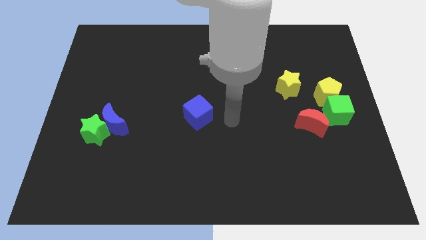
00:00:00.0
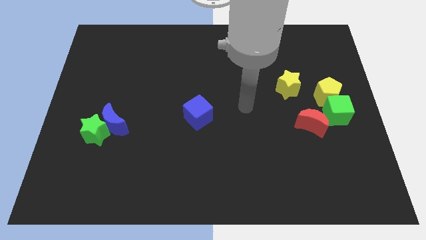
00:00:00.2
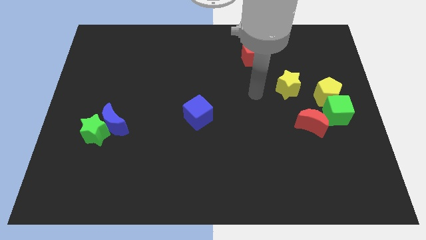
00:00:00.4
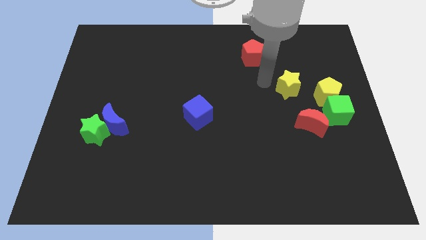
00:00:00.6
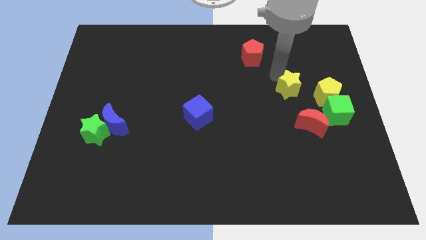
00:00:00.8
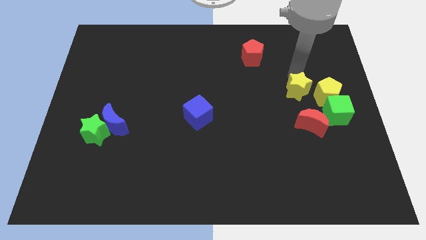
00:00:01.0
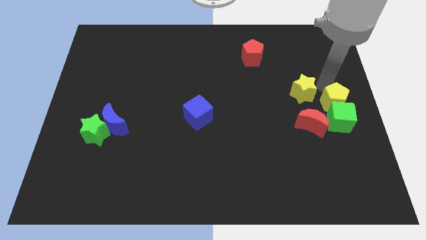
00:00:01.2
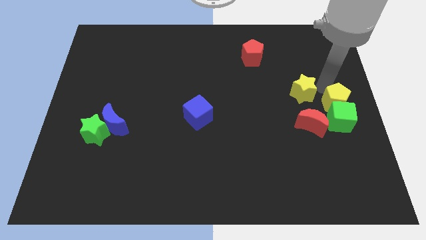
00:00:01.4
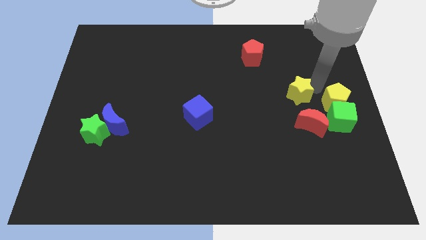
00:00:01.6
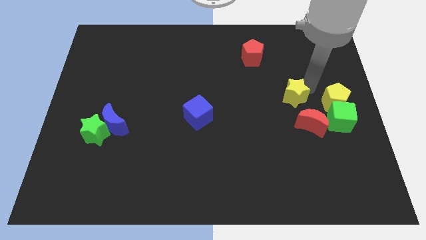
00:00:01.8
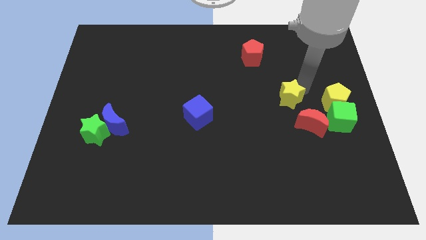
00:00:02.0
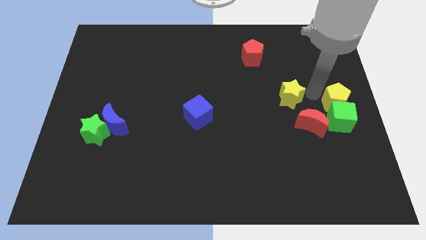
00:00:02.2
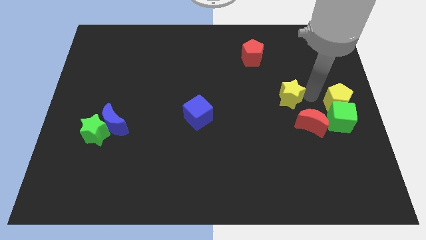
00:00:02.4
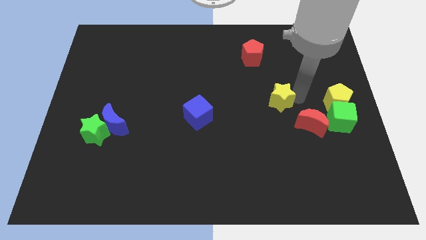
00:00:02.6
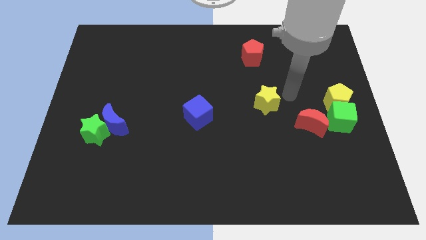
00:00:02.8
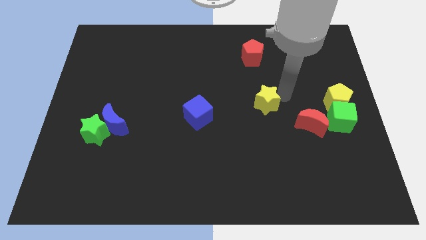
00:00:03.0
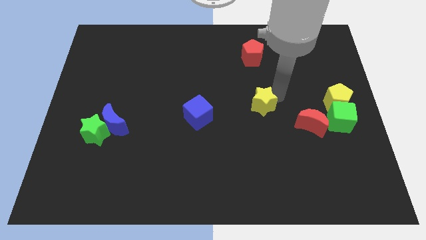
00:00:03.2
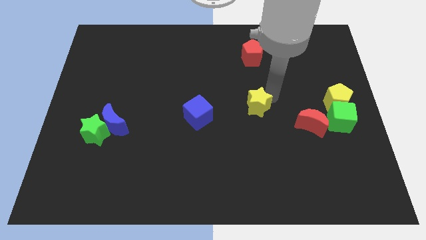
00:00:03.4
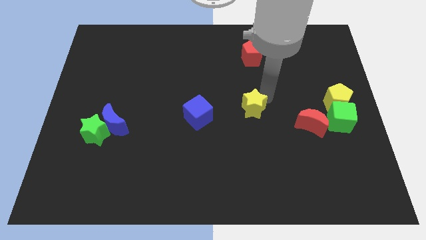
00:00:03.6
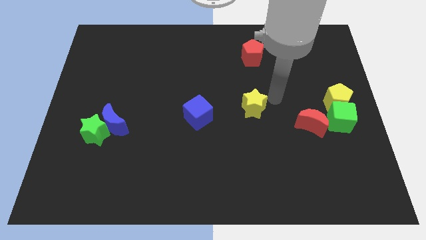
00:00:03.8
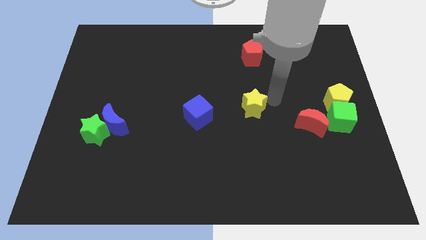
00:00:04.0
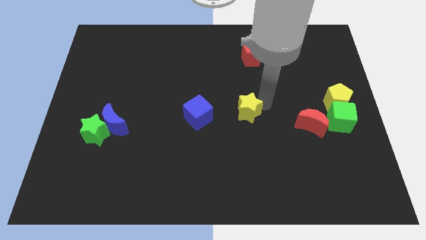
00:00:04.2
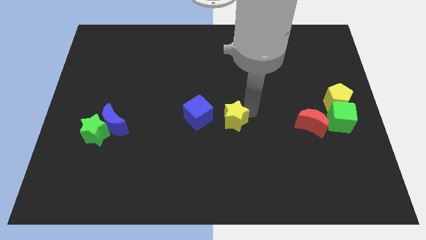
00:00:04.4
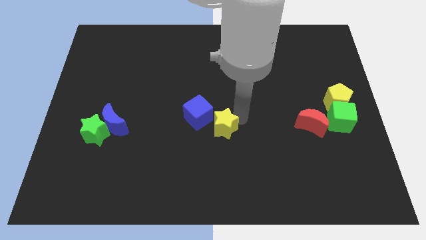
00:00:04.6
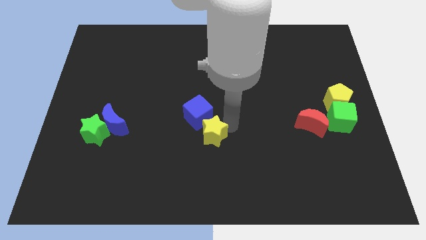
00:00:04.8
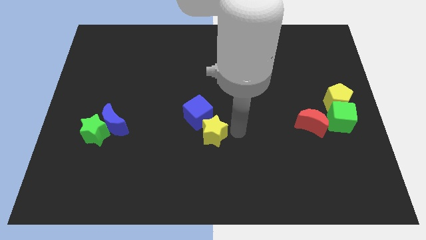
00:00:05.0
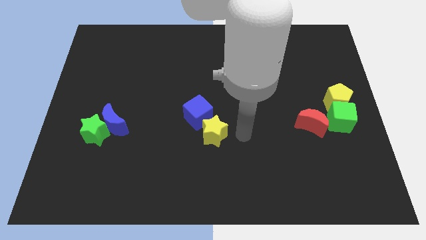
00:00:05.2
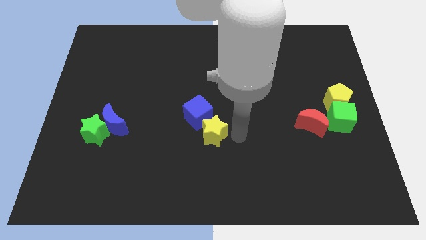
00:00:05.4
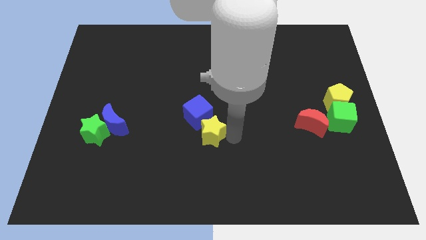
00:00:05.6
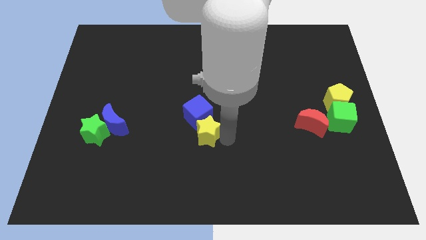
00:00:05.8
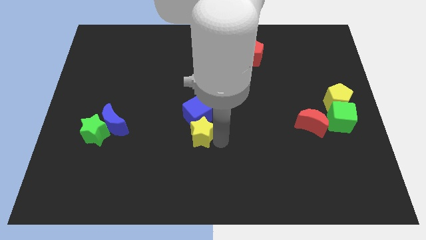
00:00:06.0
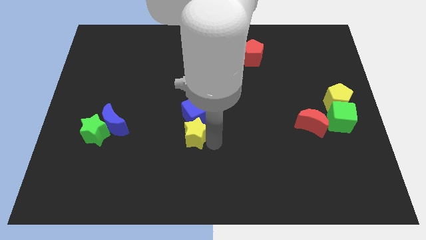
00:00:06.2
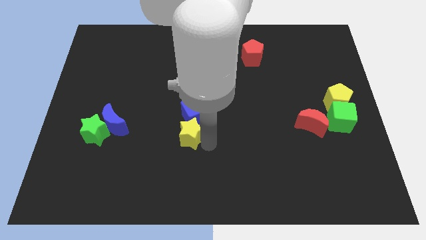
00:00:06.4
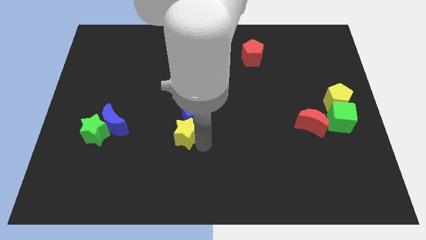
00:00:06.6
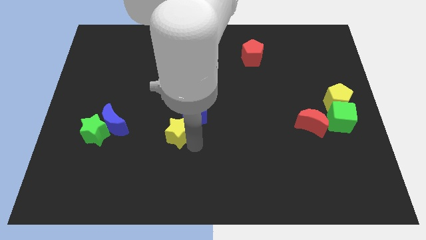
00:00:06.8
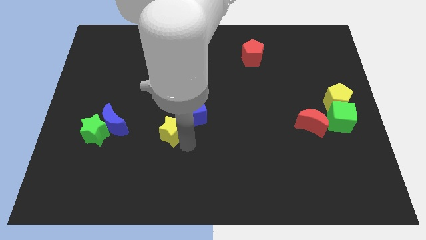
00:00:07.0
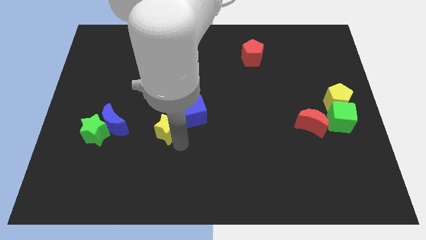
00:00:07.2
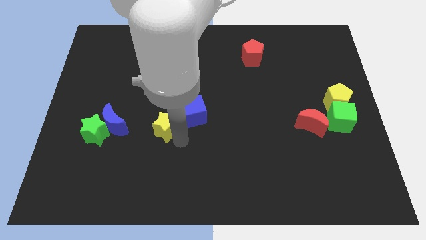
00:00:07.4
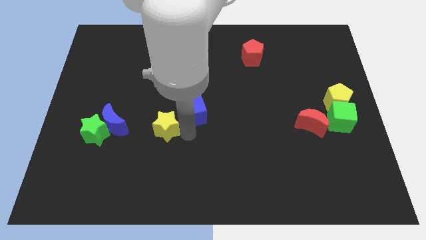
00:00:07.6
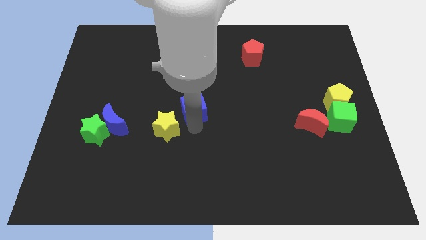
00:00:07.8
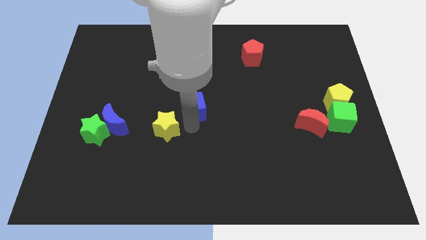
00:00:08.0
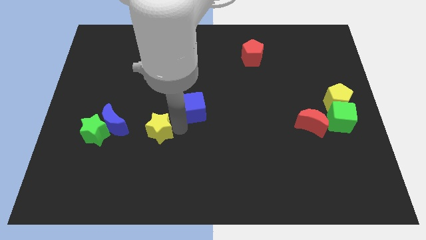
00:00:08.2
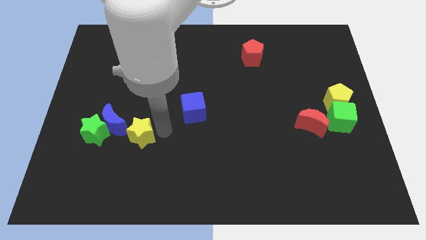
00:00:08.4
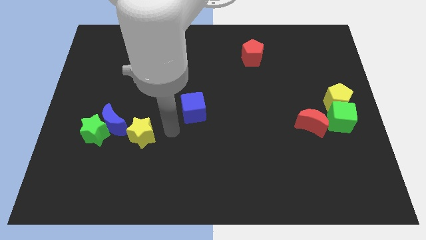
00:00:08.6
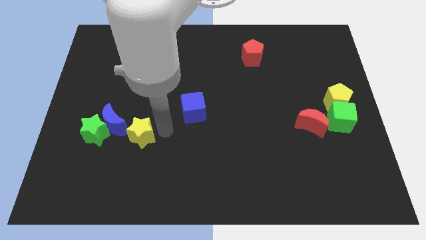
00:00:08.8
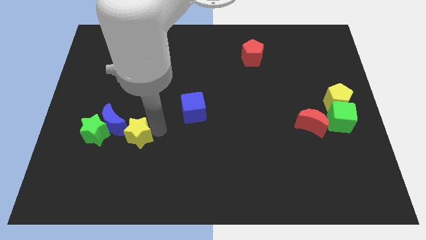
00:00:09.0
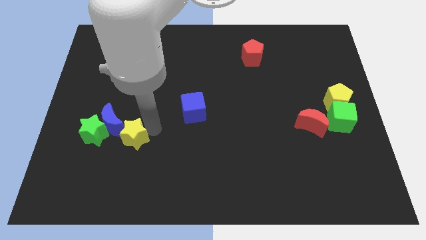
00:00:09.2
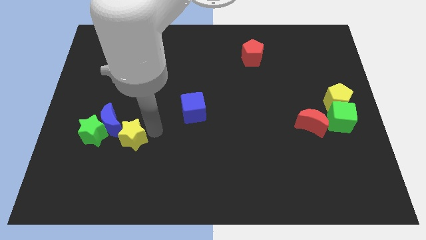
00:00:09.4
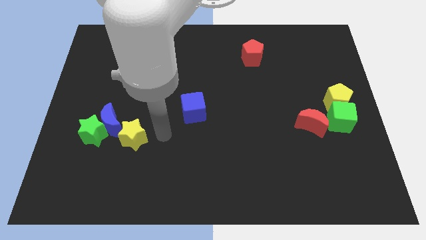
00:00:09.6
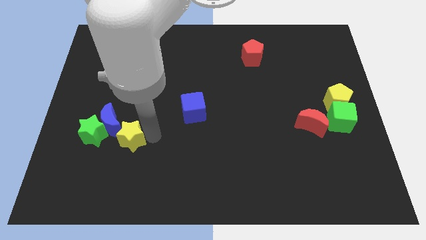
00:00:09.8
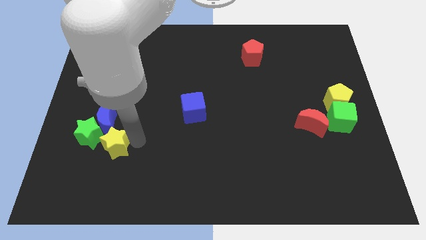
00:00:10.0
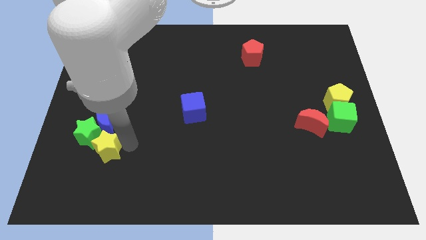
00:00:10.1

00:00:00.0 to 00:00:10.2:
put the yellow star close to the green star

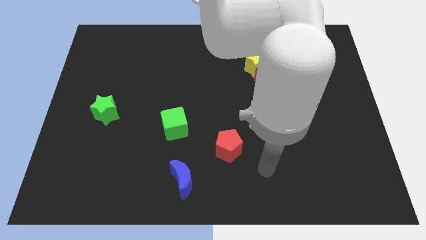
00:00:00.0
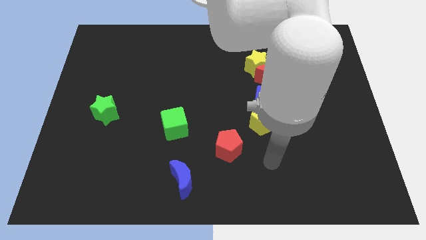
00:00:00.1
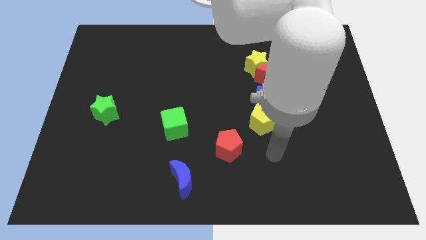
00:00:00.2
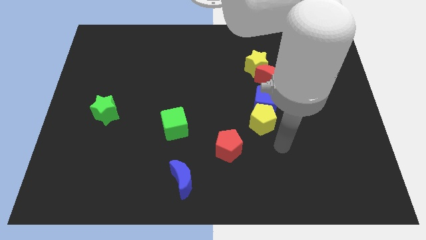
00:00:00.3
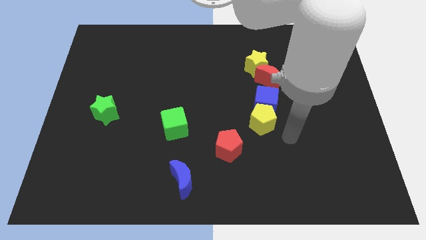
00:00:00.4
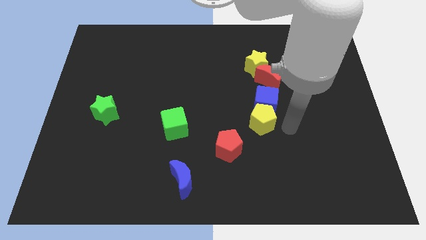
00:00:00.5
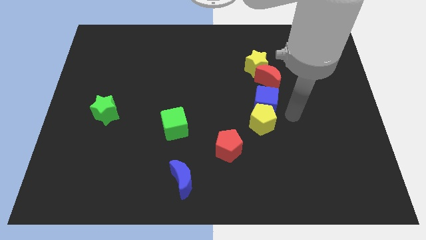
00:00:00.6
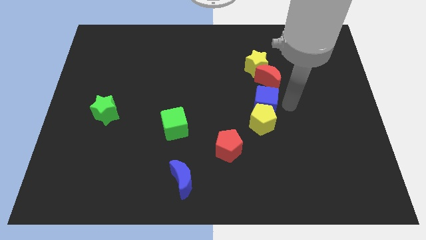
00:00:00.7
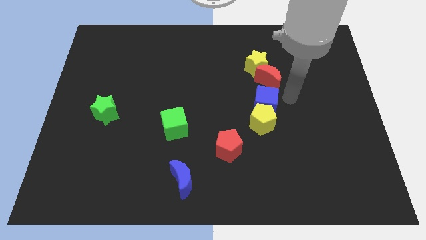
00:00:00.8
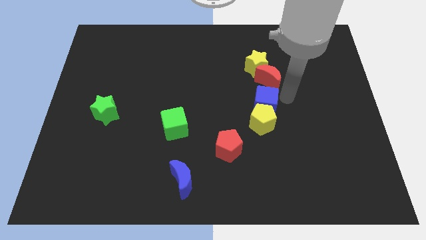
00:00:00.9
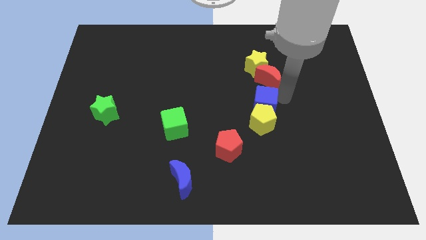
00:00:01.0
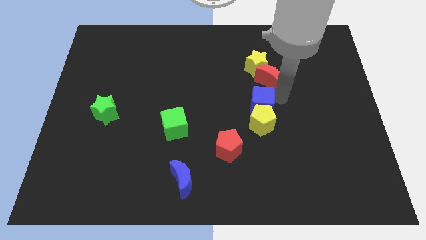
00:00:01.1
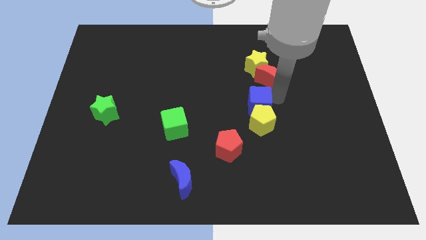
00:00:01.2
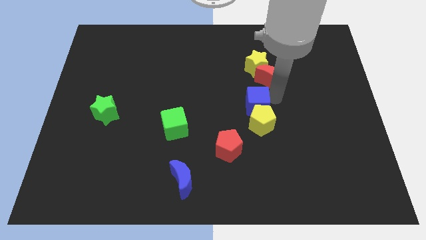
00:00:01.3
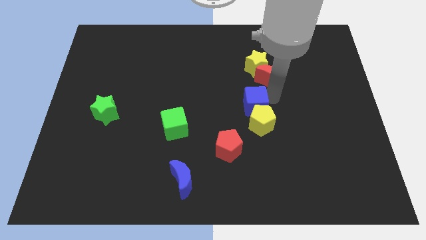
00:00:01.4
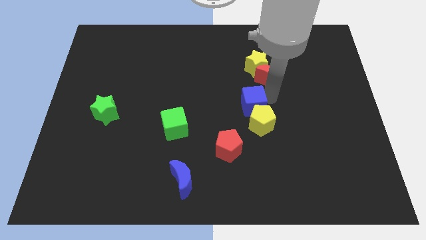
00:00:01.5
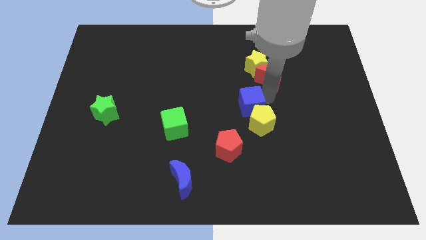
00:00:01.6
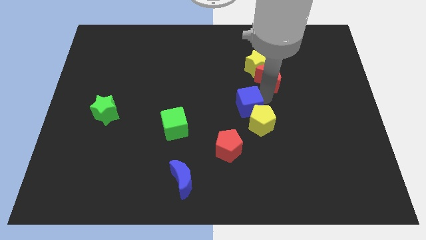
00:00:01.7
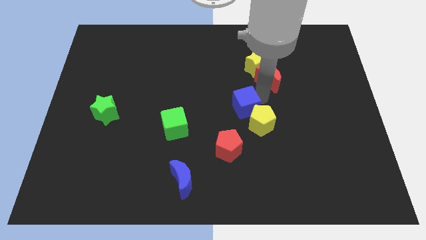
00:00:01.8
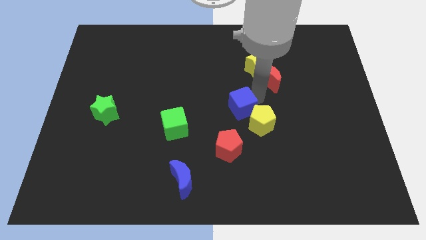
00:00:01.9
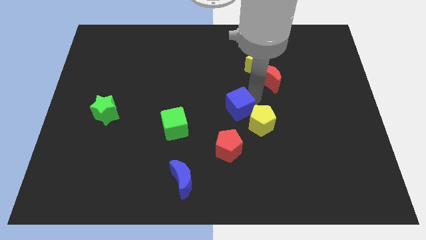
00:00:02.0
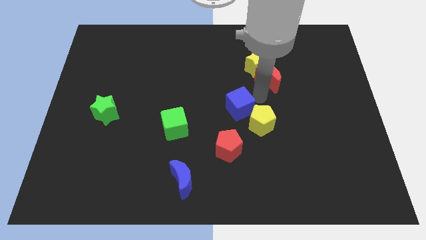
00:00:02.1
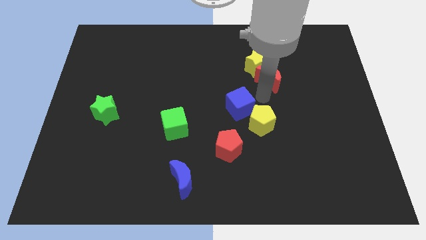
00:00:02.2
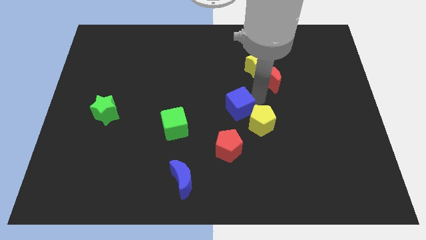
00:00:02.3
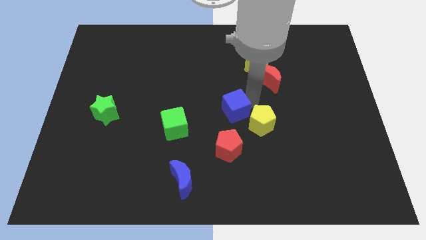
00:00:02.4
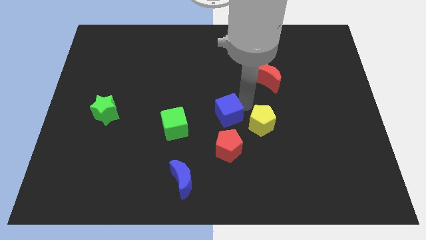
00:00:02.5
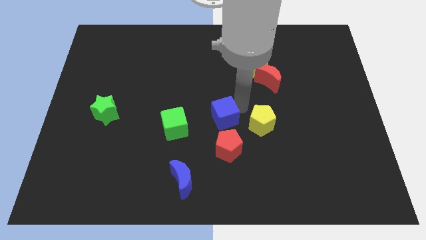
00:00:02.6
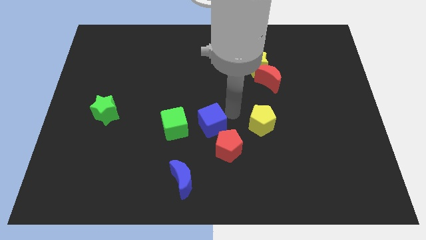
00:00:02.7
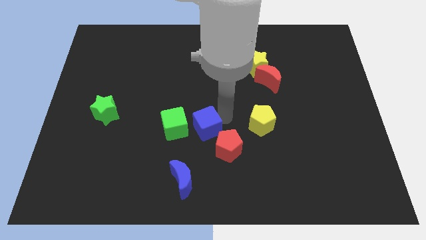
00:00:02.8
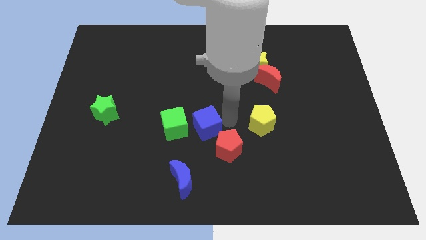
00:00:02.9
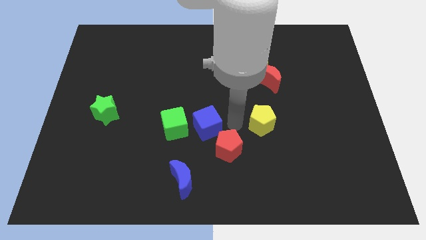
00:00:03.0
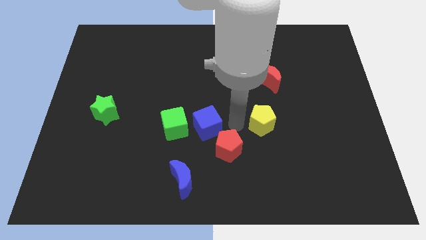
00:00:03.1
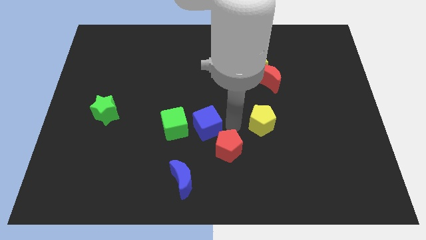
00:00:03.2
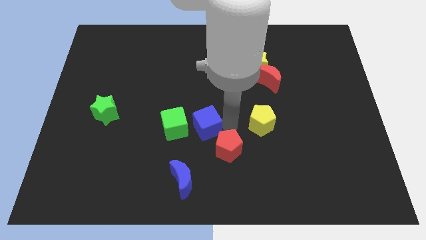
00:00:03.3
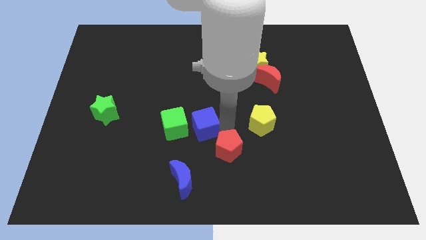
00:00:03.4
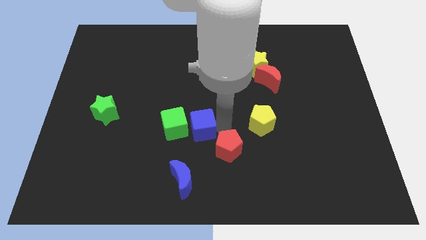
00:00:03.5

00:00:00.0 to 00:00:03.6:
push the blue cube towards the green cube
